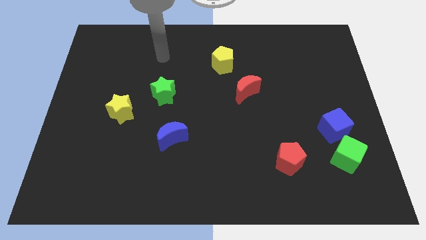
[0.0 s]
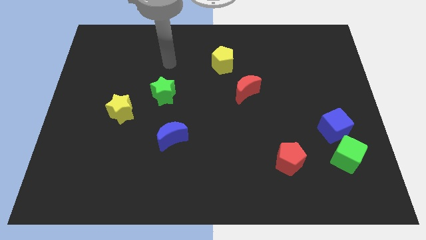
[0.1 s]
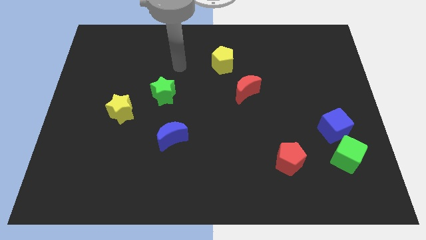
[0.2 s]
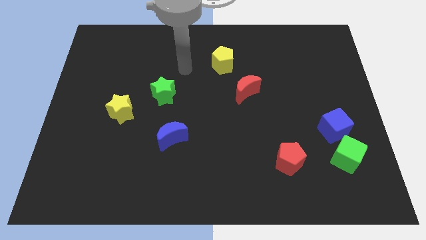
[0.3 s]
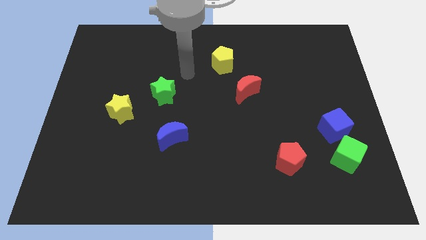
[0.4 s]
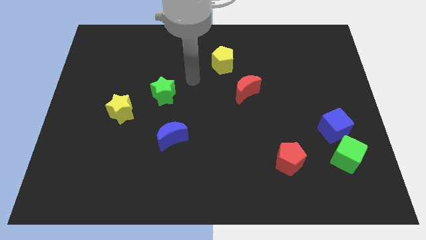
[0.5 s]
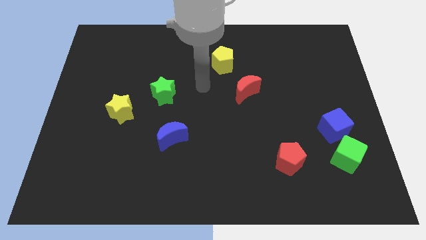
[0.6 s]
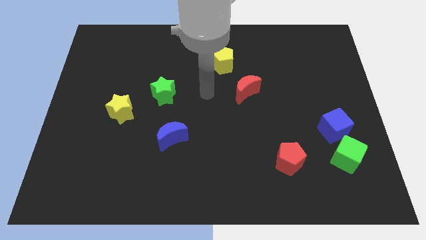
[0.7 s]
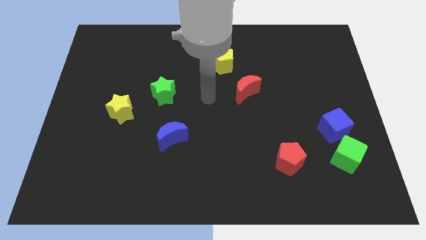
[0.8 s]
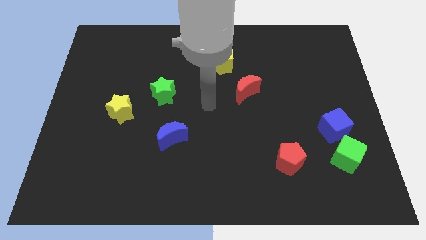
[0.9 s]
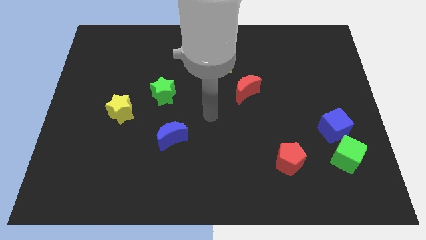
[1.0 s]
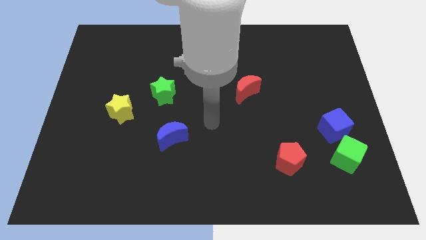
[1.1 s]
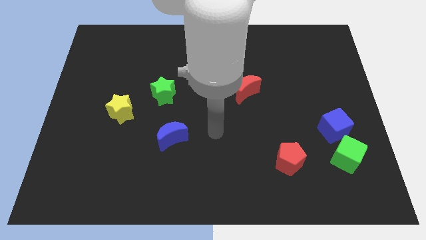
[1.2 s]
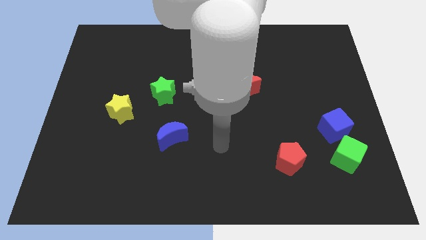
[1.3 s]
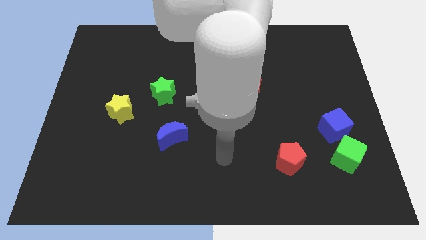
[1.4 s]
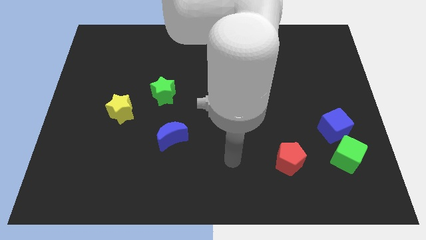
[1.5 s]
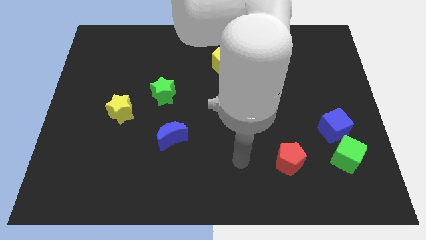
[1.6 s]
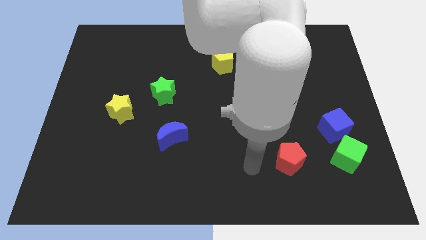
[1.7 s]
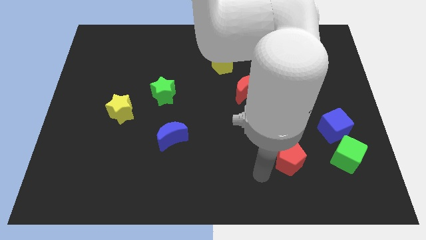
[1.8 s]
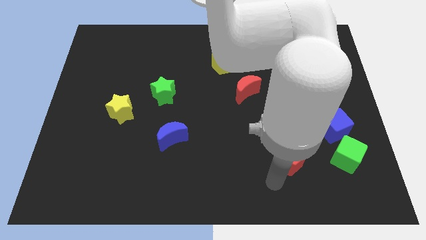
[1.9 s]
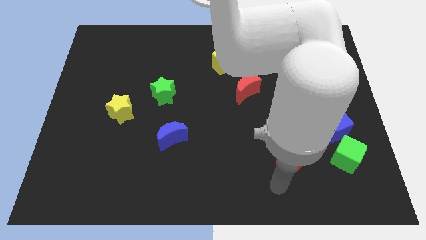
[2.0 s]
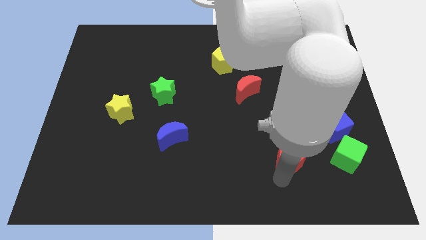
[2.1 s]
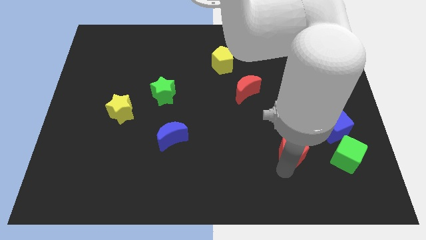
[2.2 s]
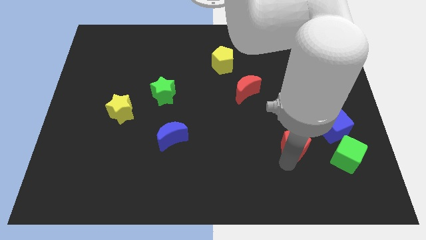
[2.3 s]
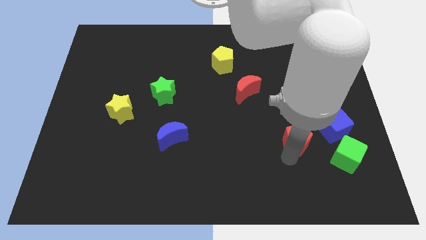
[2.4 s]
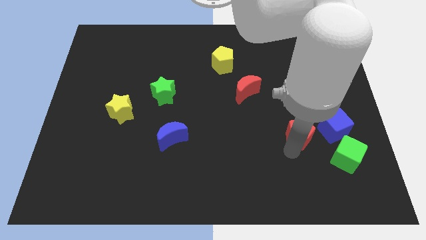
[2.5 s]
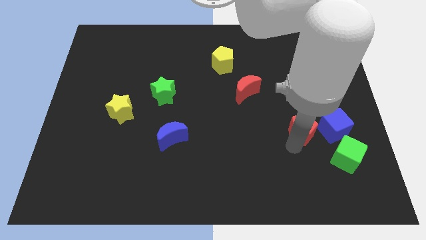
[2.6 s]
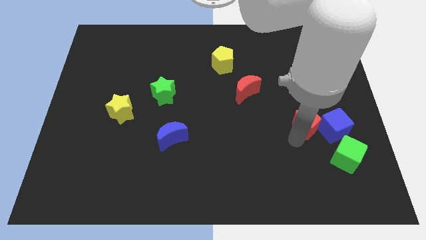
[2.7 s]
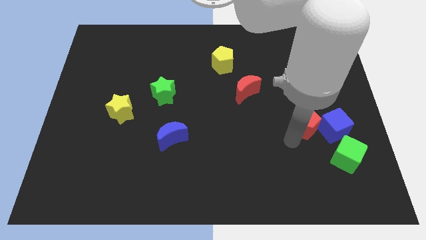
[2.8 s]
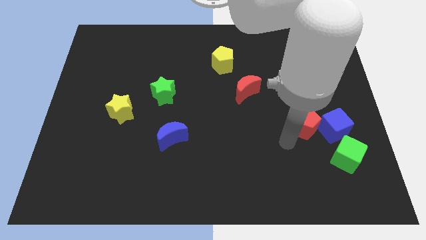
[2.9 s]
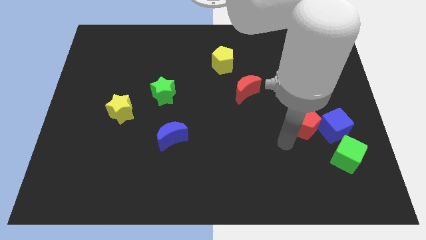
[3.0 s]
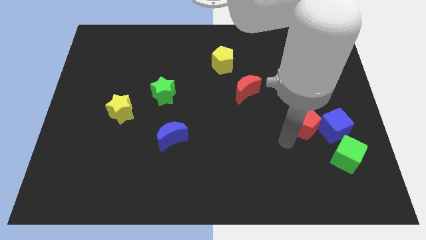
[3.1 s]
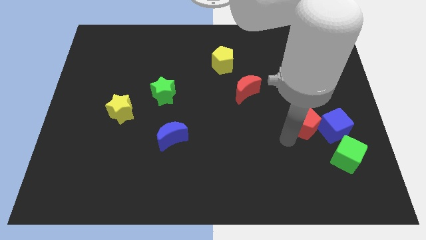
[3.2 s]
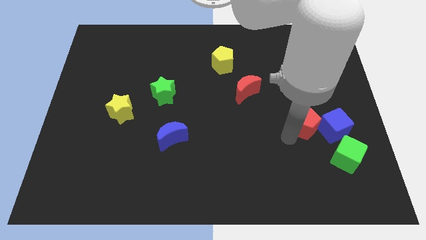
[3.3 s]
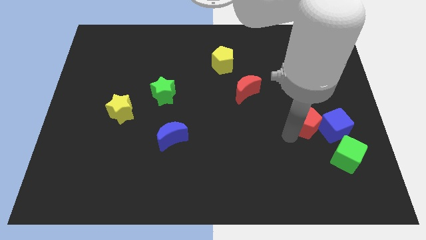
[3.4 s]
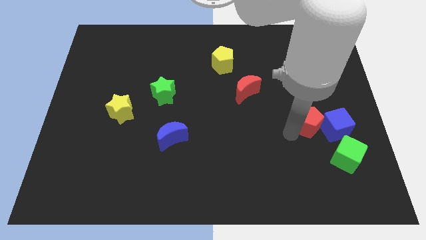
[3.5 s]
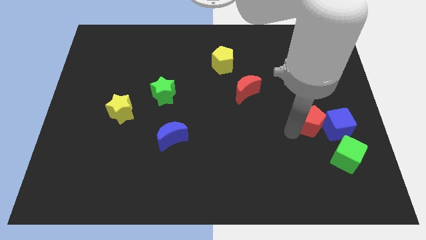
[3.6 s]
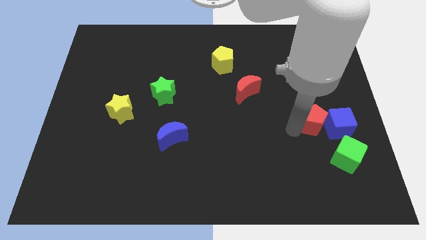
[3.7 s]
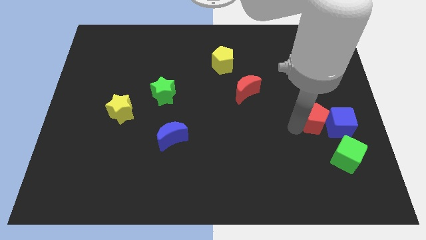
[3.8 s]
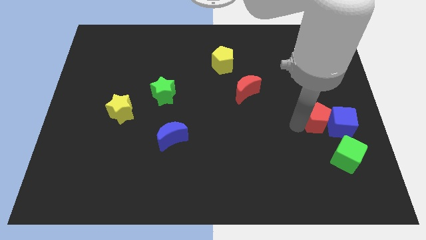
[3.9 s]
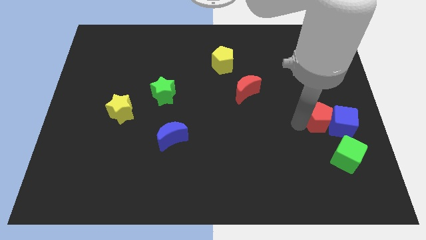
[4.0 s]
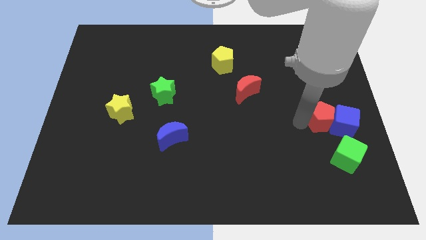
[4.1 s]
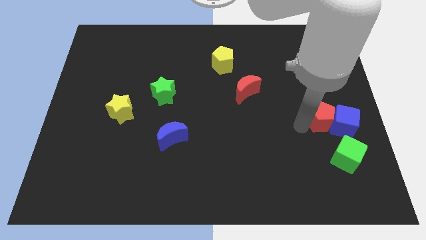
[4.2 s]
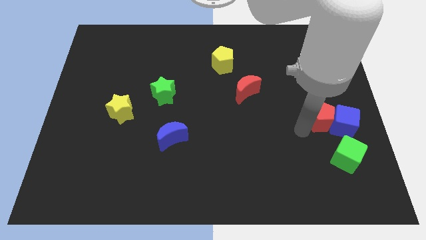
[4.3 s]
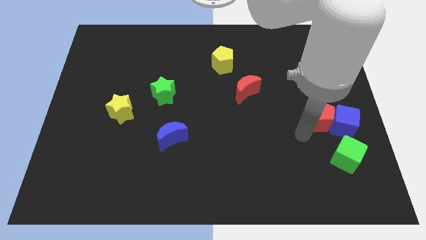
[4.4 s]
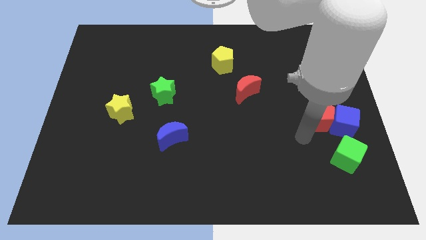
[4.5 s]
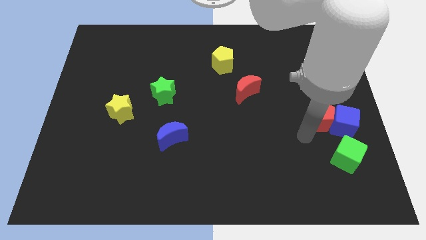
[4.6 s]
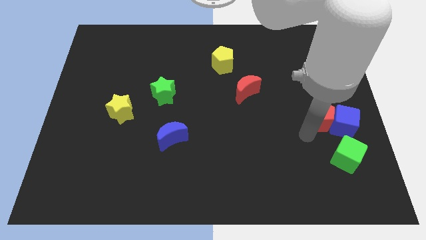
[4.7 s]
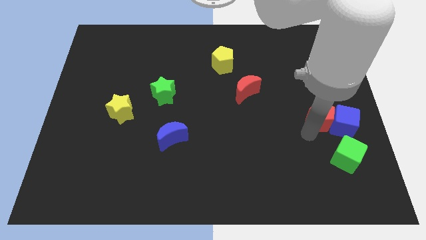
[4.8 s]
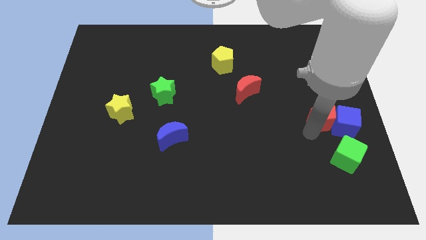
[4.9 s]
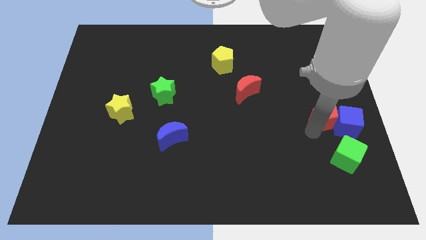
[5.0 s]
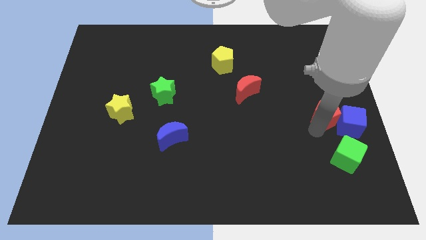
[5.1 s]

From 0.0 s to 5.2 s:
slide the red pentagon to the center right
